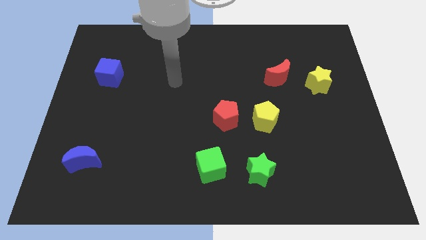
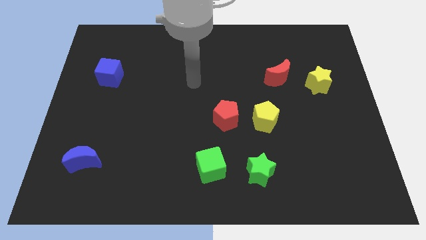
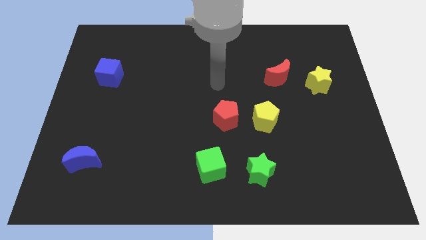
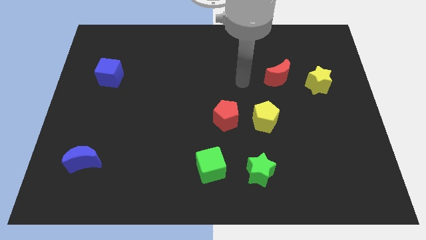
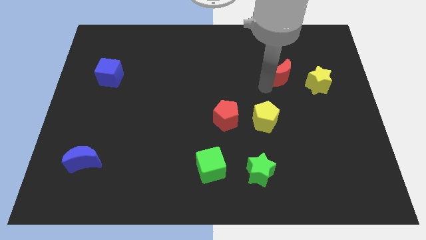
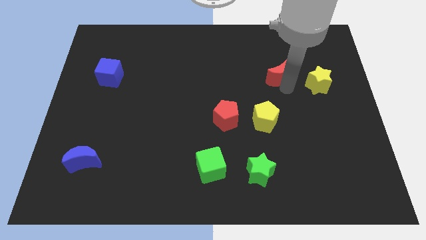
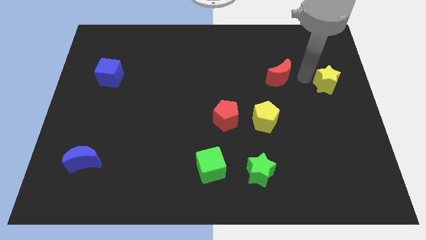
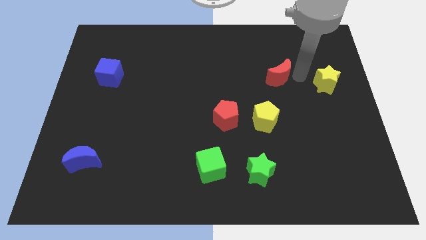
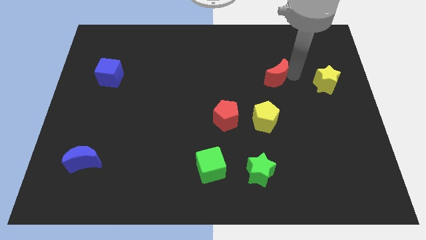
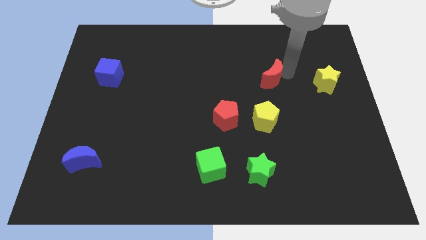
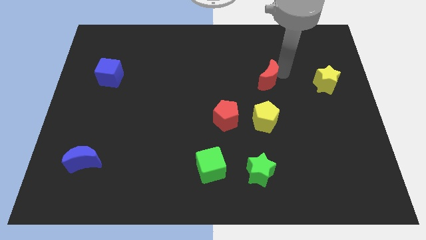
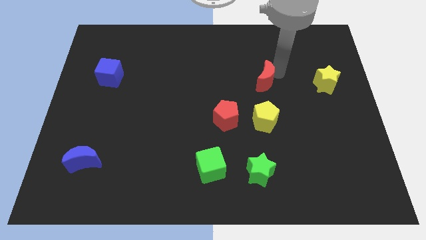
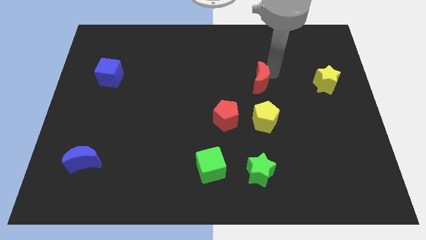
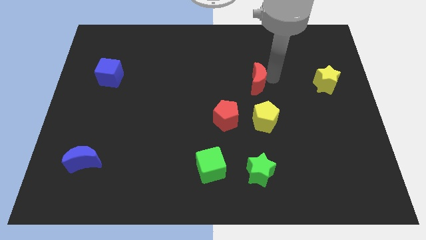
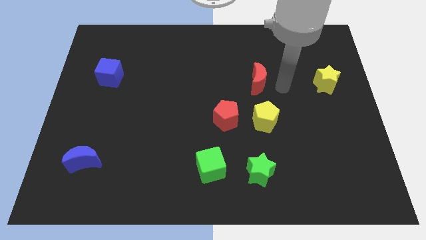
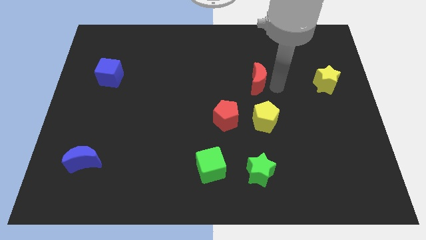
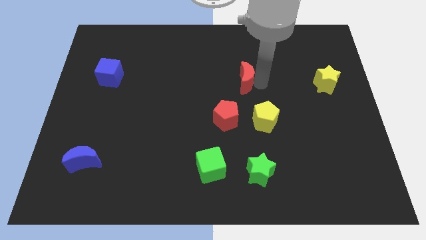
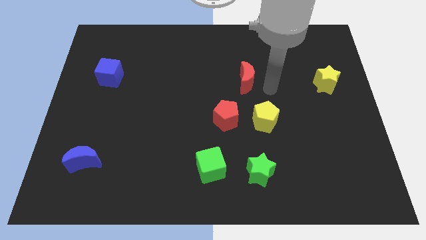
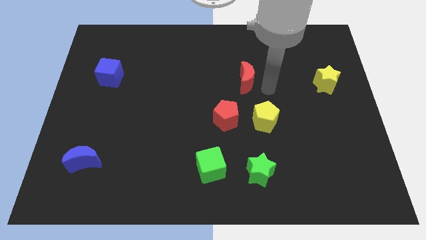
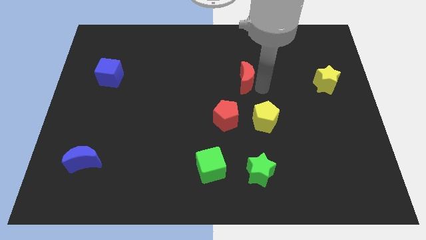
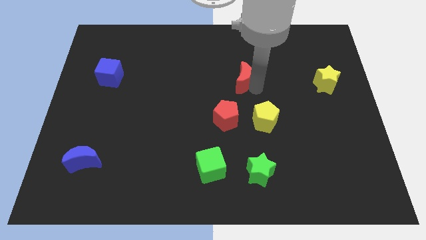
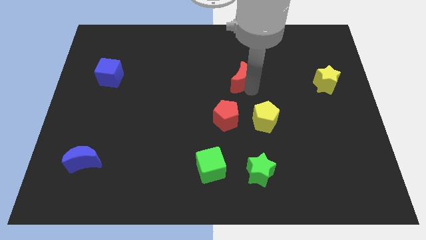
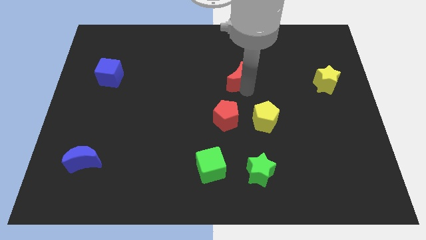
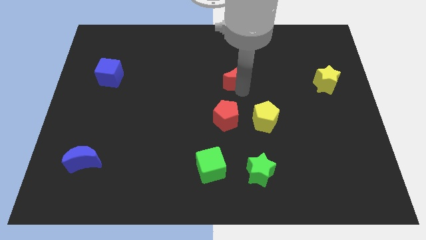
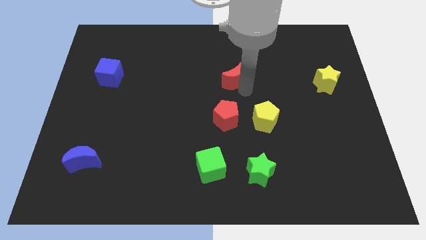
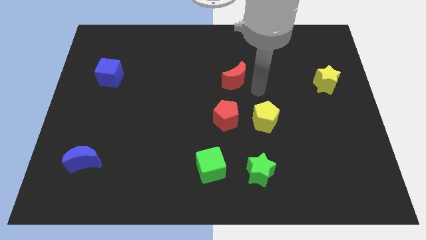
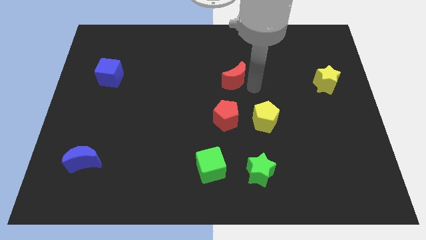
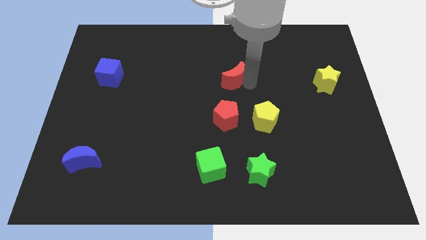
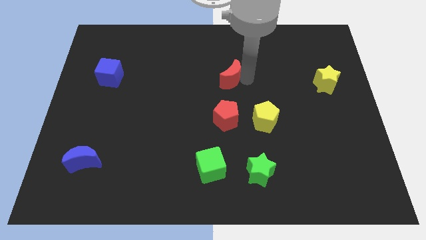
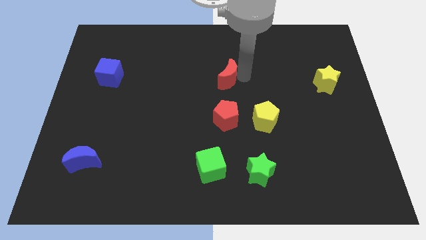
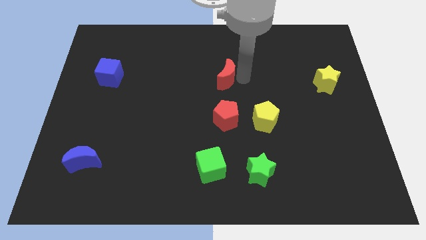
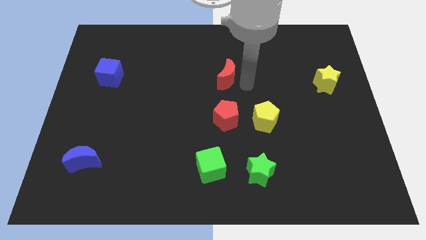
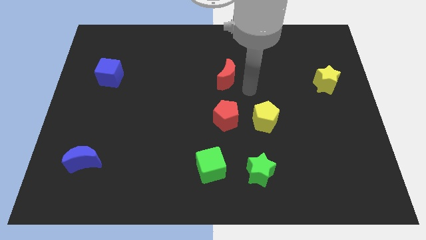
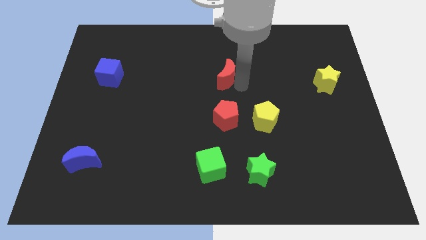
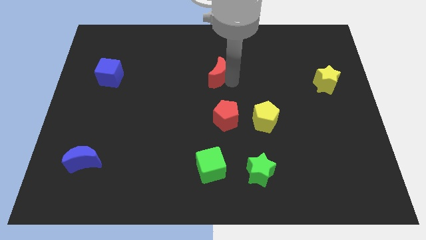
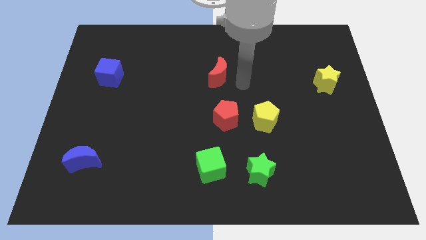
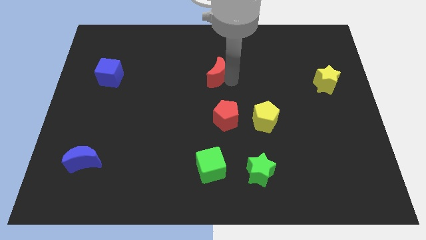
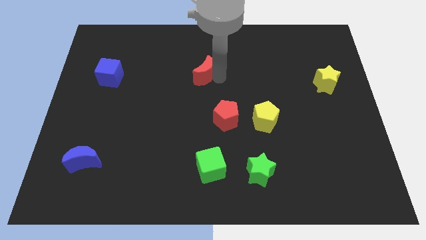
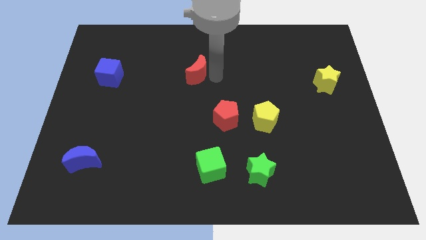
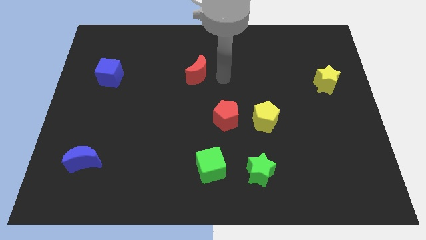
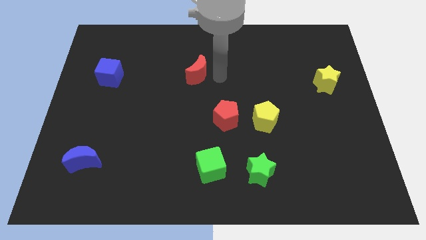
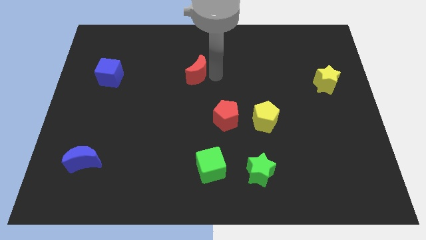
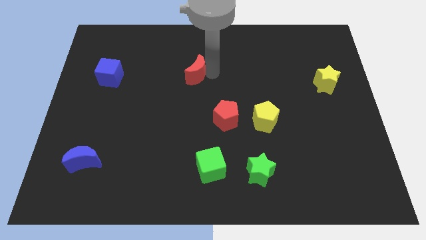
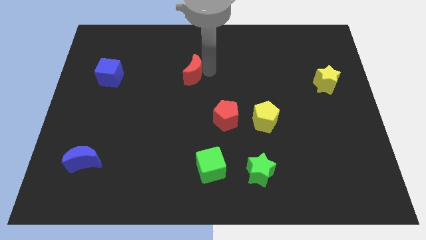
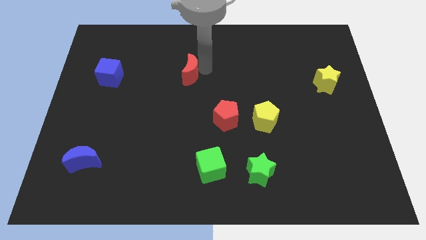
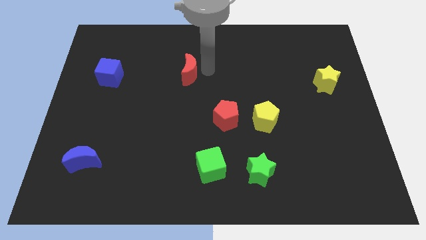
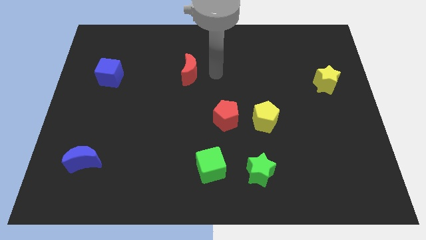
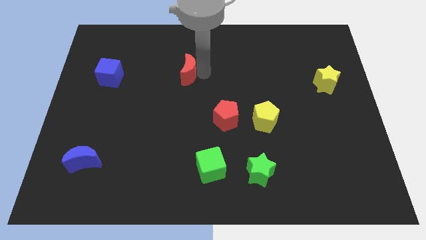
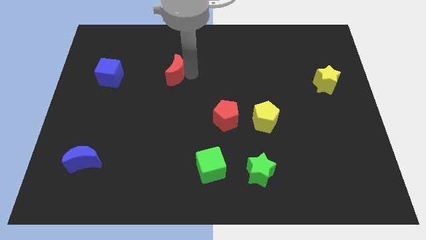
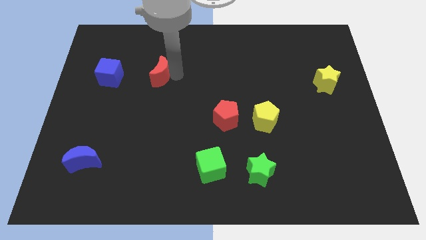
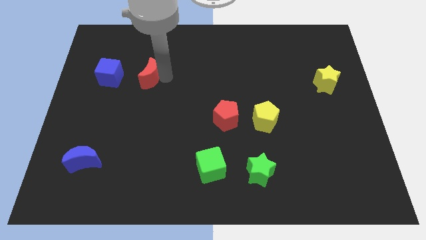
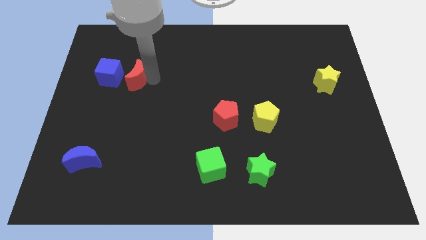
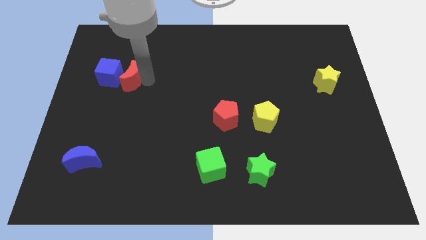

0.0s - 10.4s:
push the red moon next to the blue cube

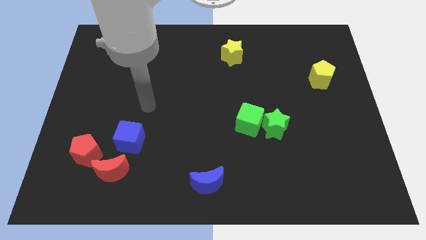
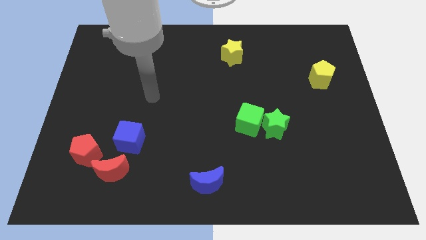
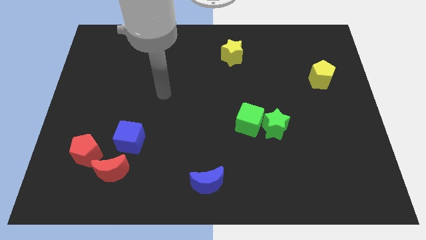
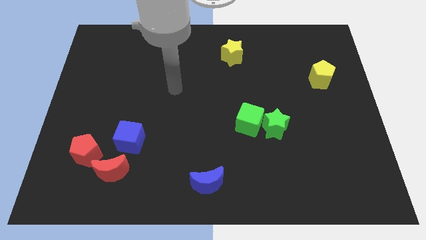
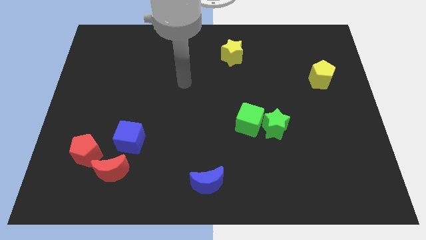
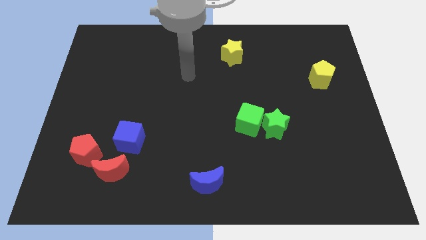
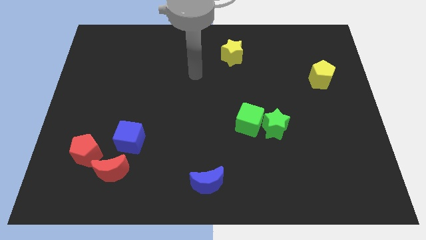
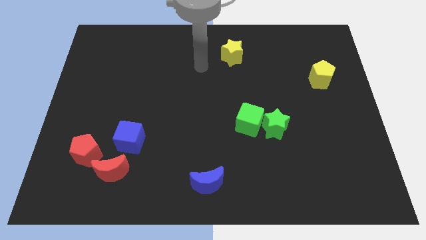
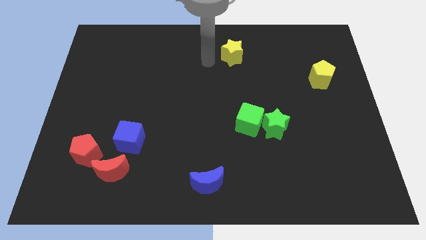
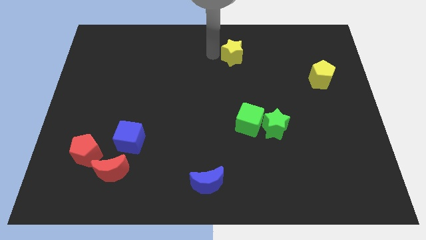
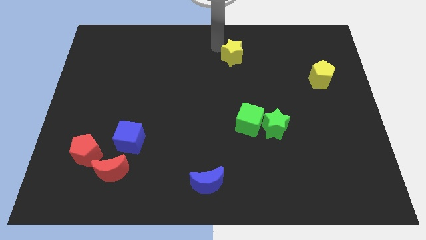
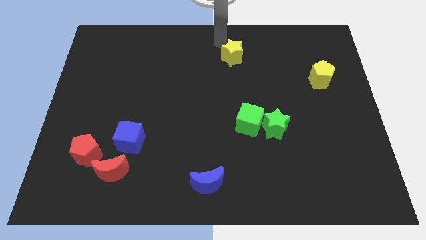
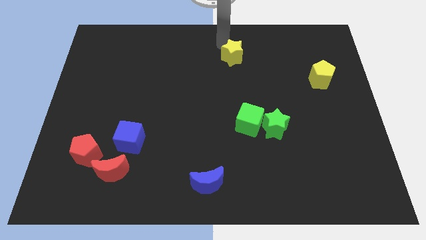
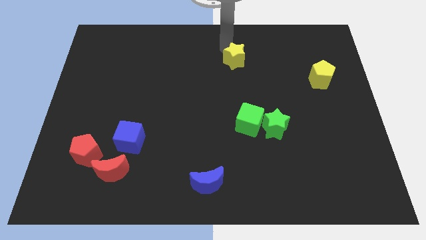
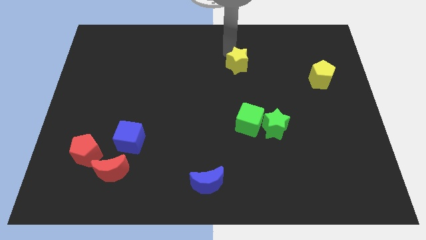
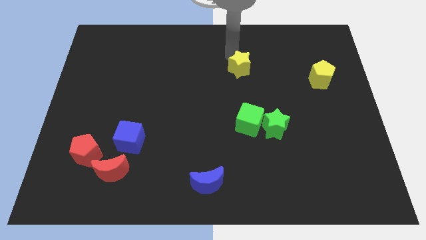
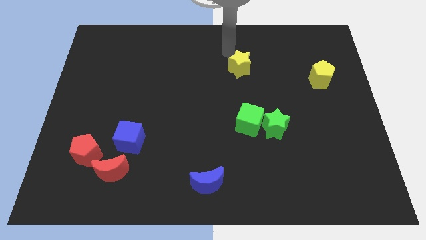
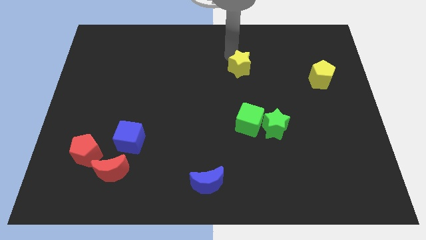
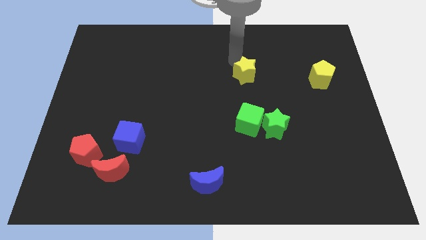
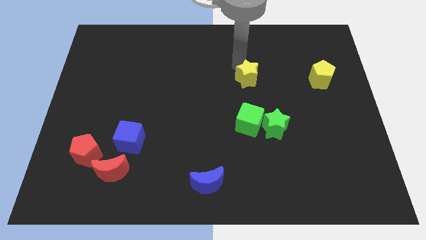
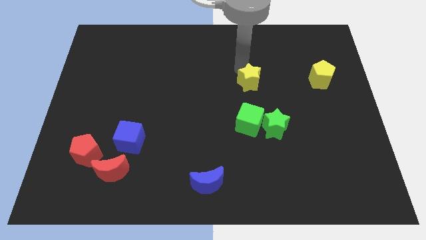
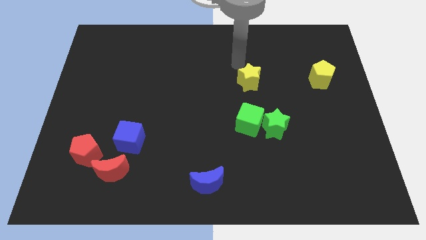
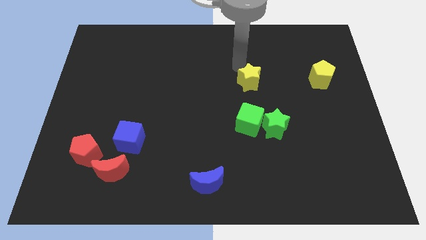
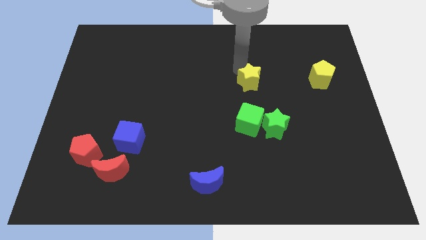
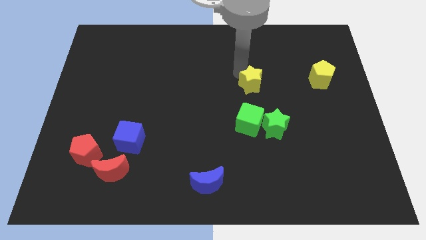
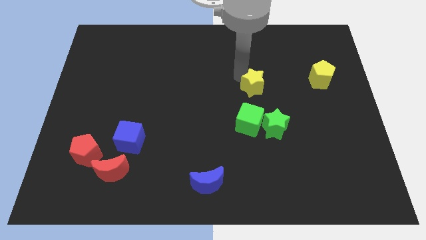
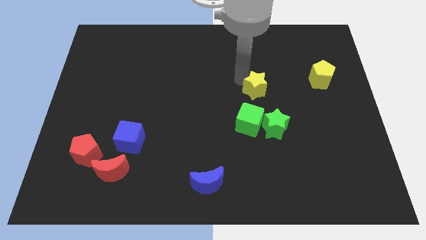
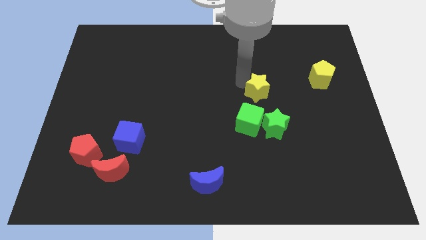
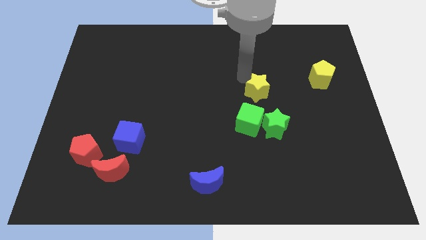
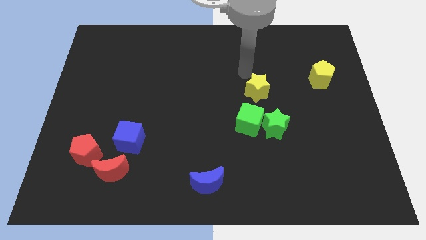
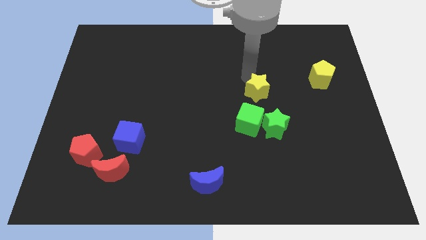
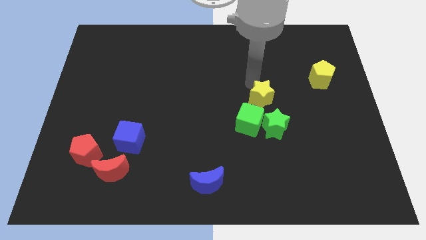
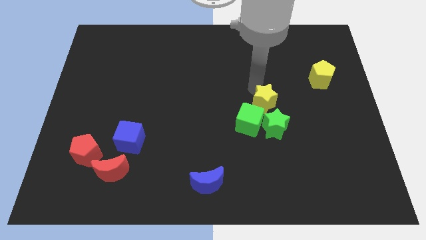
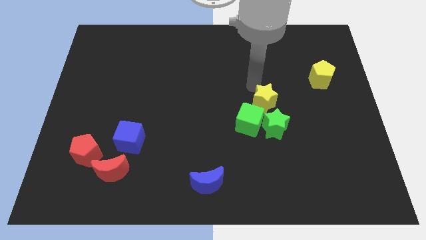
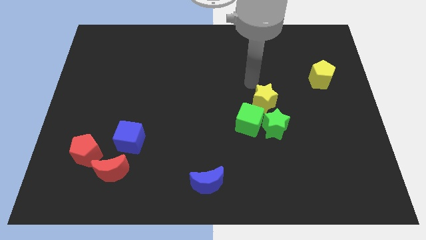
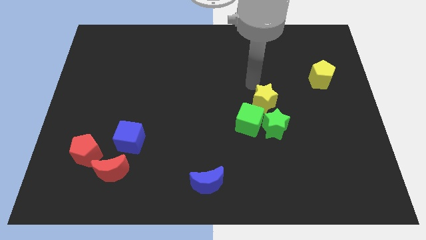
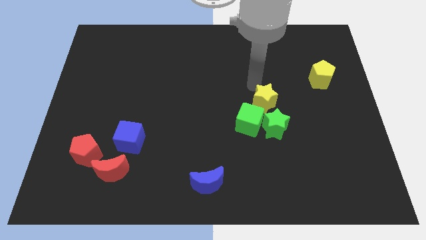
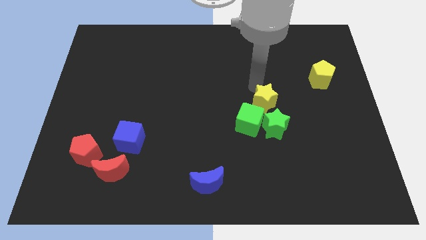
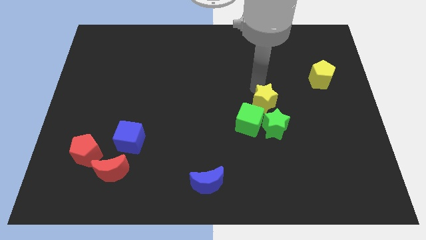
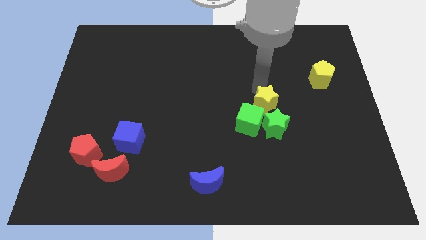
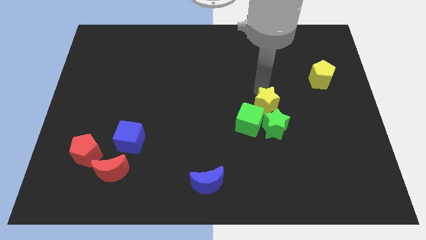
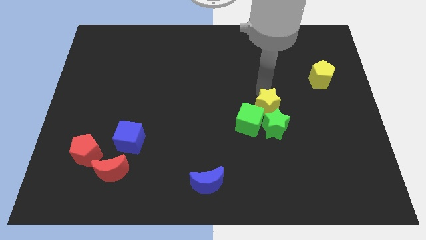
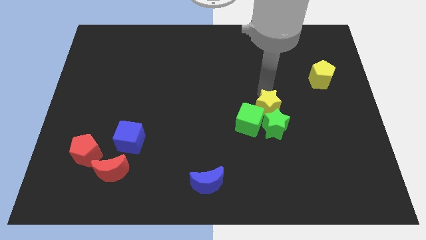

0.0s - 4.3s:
move the yellow star to the green star
